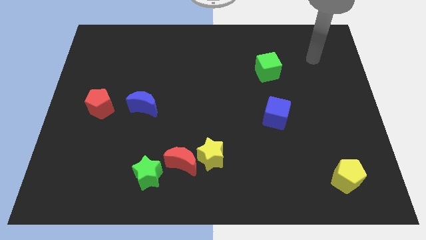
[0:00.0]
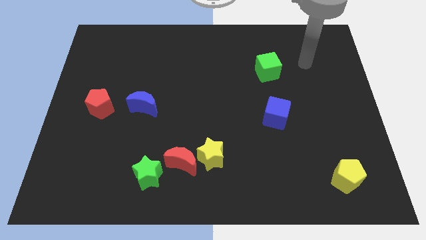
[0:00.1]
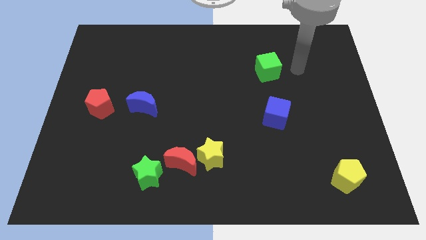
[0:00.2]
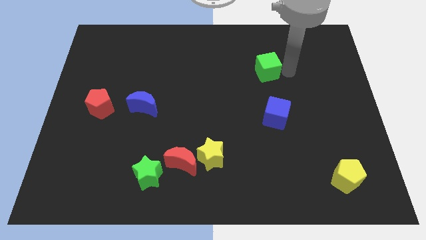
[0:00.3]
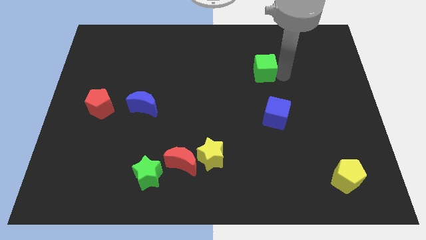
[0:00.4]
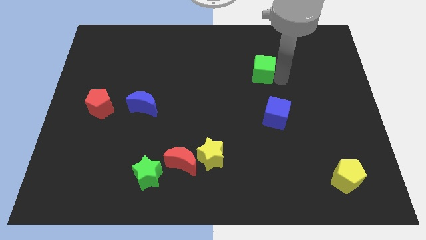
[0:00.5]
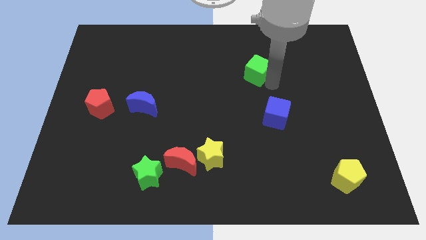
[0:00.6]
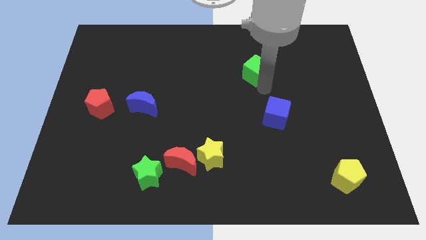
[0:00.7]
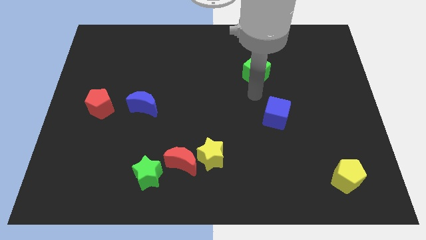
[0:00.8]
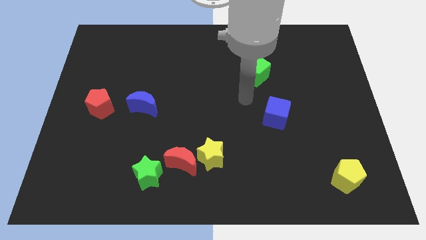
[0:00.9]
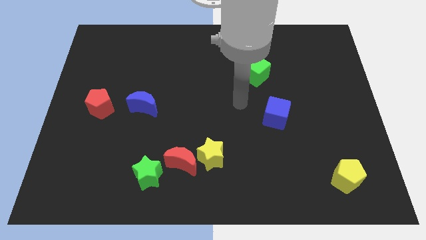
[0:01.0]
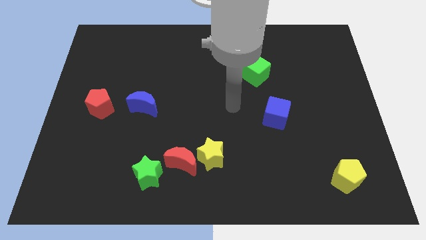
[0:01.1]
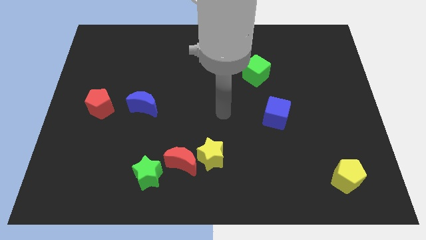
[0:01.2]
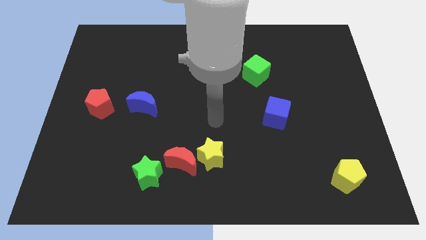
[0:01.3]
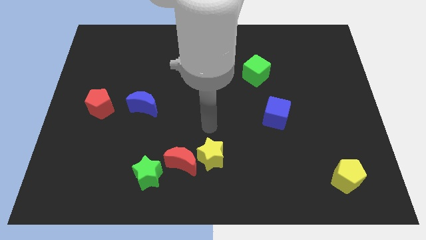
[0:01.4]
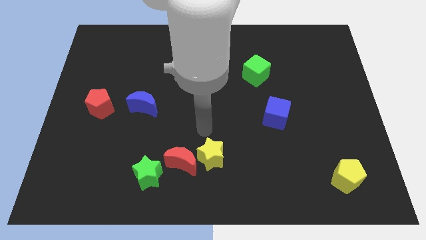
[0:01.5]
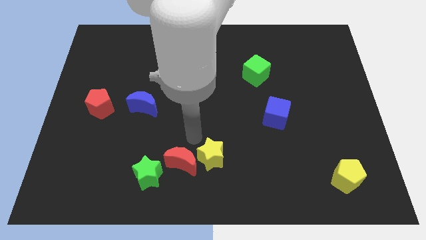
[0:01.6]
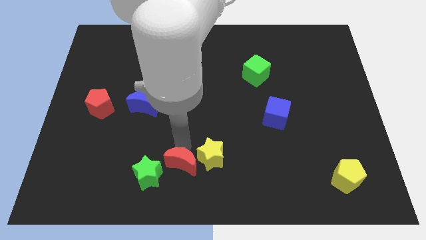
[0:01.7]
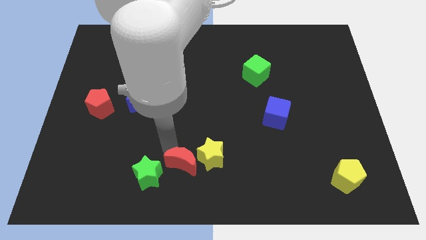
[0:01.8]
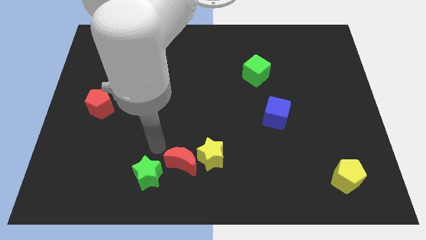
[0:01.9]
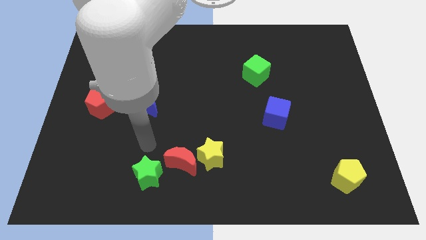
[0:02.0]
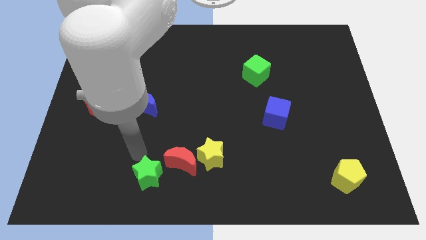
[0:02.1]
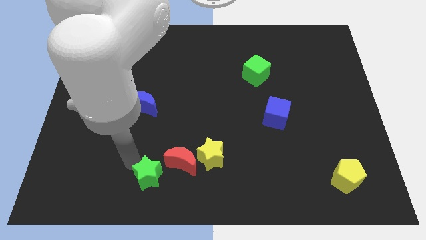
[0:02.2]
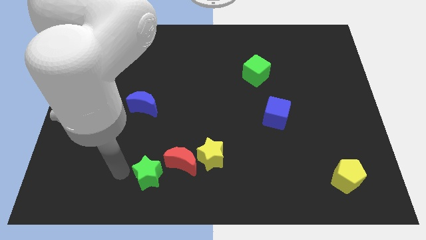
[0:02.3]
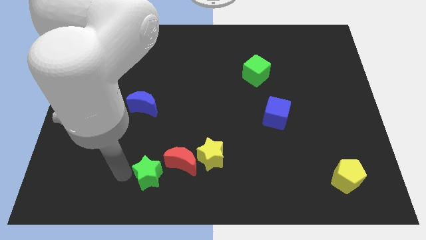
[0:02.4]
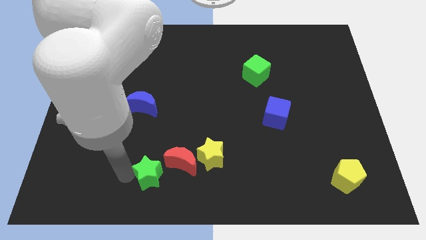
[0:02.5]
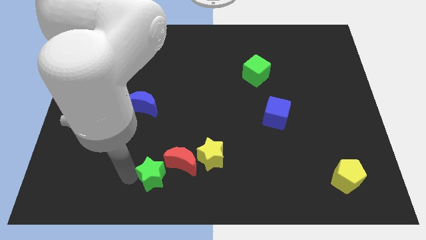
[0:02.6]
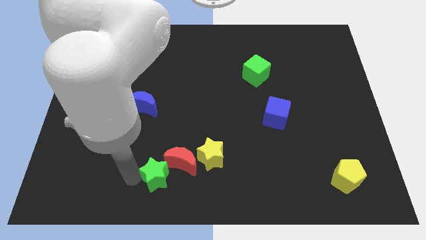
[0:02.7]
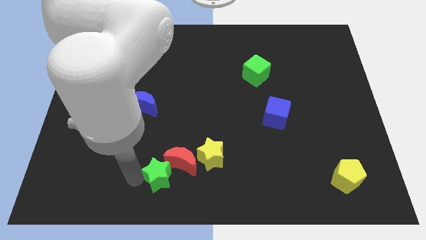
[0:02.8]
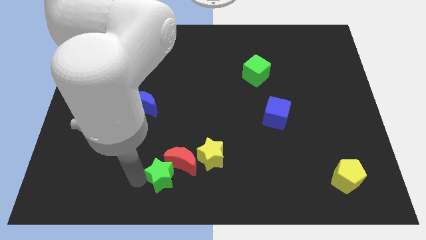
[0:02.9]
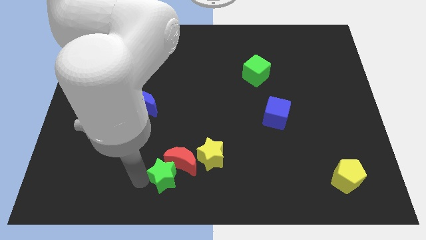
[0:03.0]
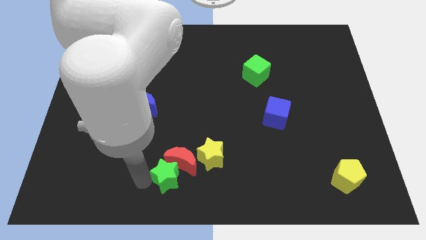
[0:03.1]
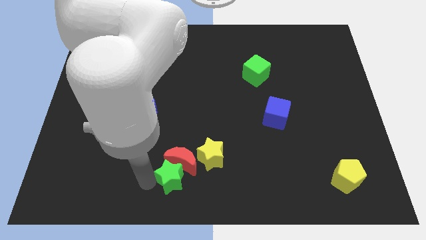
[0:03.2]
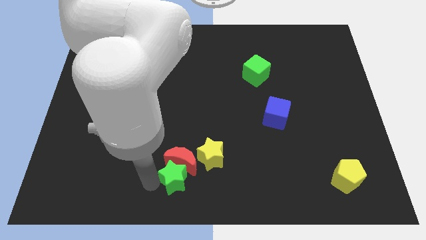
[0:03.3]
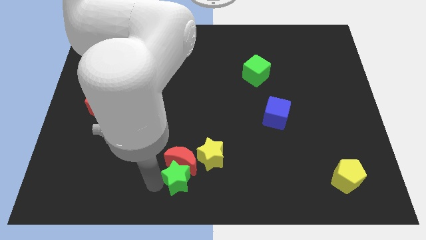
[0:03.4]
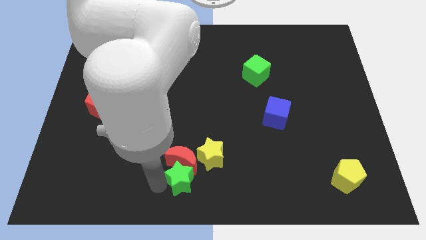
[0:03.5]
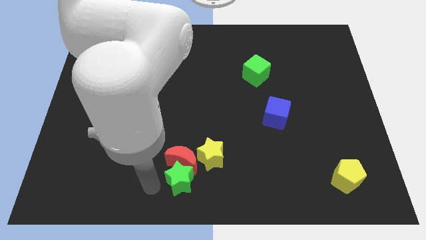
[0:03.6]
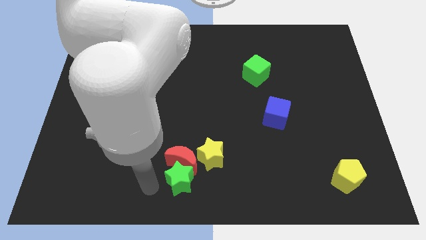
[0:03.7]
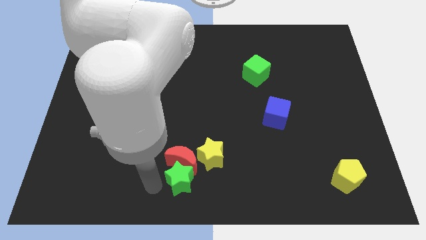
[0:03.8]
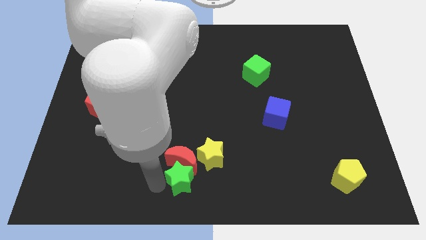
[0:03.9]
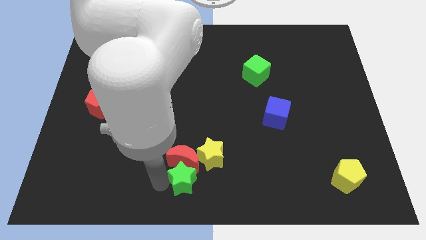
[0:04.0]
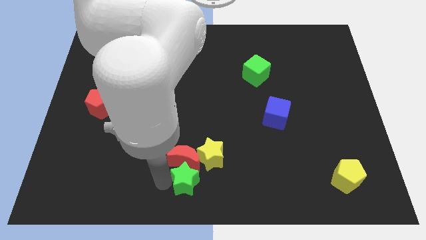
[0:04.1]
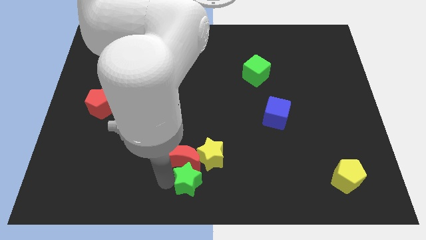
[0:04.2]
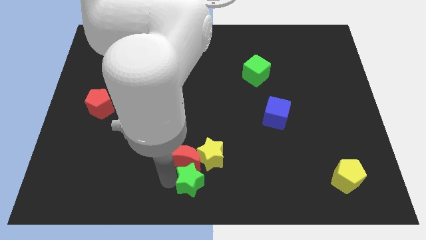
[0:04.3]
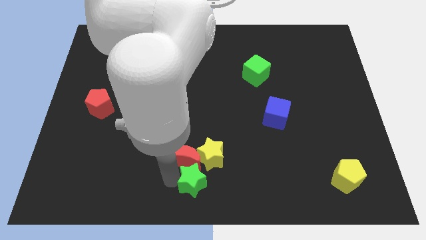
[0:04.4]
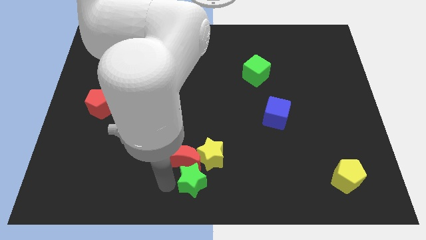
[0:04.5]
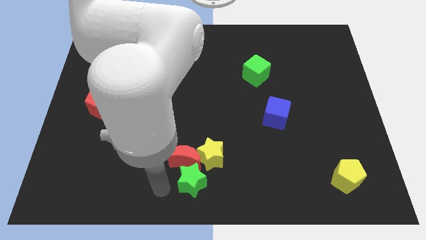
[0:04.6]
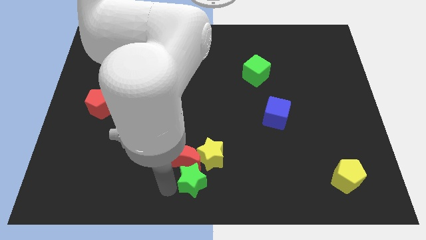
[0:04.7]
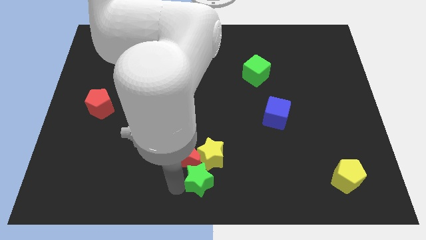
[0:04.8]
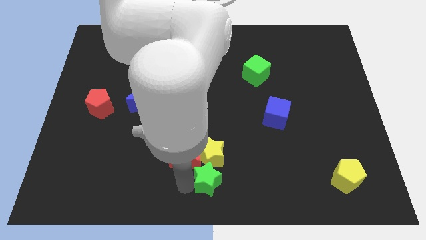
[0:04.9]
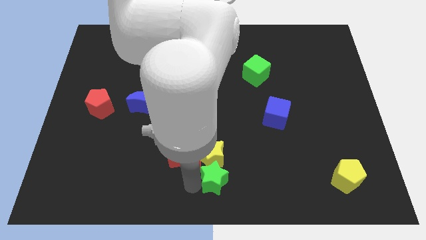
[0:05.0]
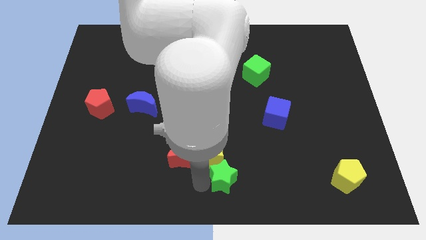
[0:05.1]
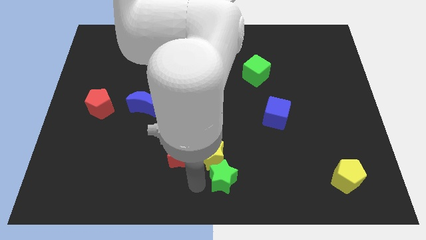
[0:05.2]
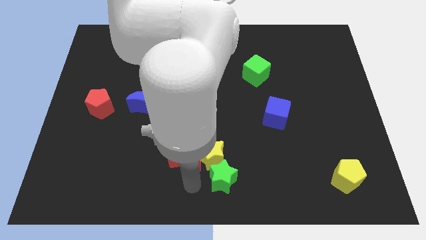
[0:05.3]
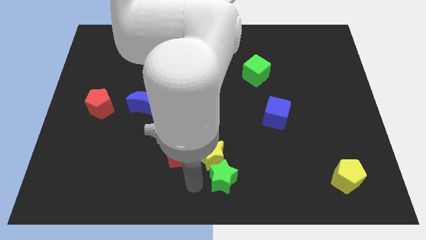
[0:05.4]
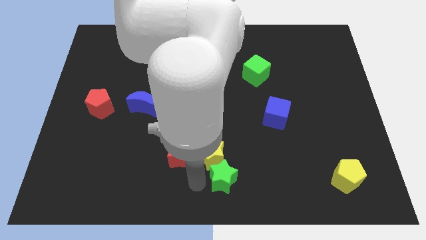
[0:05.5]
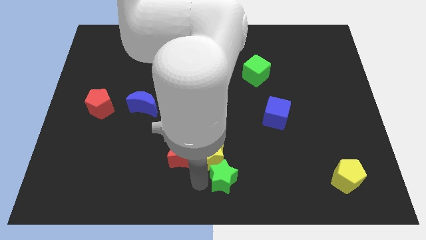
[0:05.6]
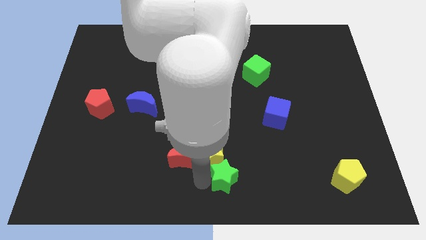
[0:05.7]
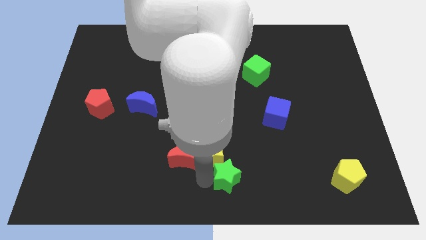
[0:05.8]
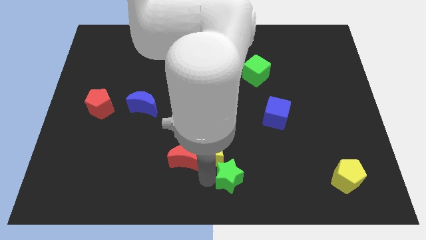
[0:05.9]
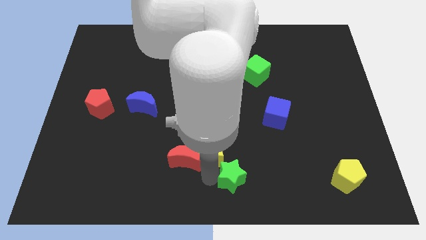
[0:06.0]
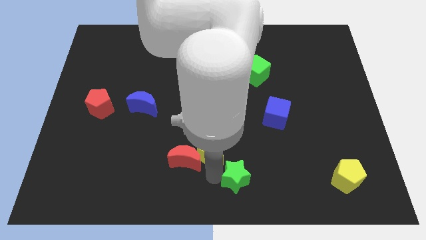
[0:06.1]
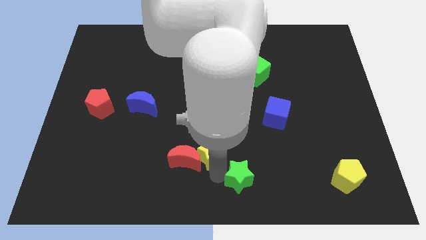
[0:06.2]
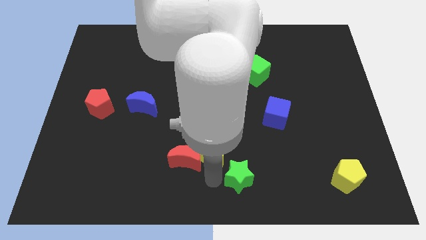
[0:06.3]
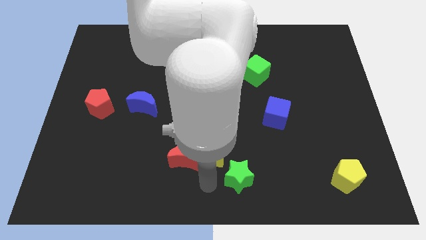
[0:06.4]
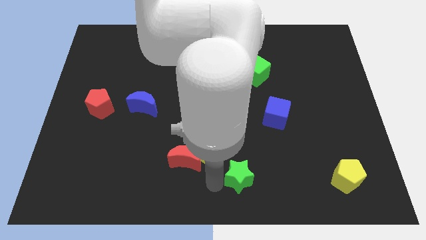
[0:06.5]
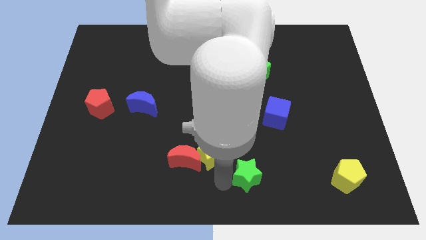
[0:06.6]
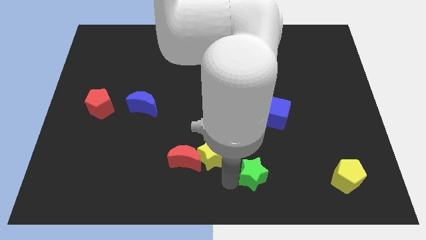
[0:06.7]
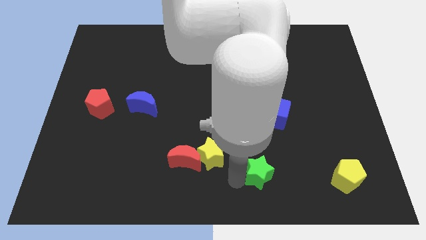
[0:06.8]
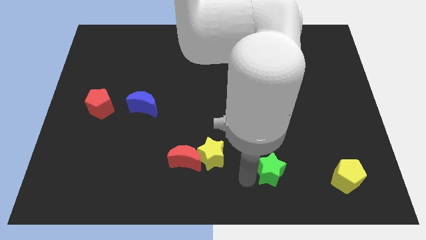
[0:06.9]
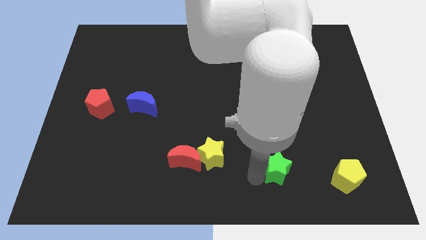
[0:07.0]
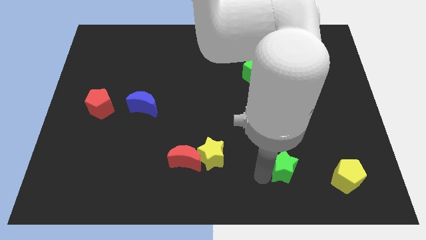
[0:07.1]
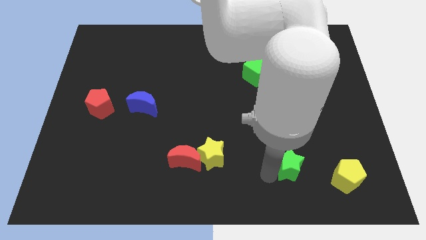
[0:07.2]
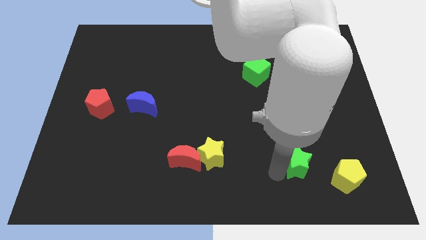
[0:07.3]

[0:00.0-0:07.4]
slide the green star diagonally up and to the left of the yellow pentagon

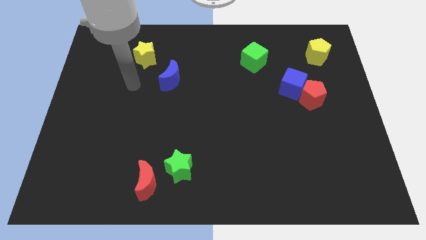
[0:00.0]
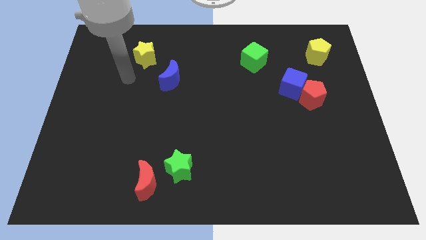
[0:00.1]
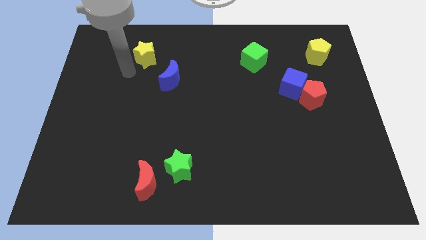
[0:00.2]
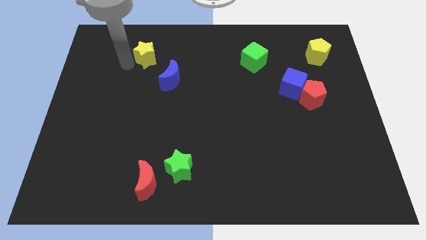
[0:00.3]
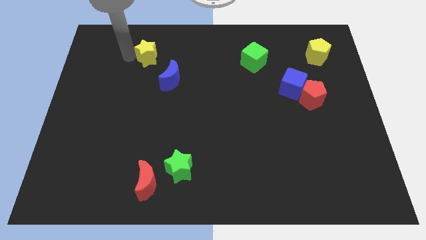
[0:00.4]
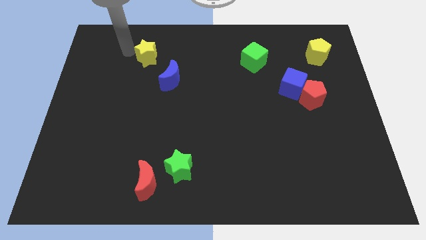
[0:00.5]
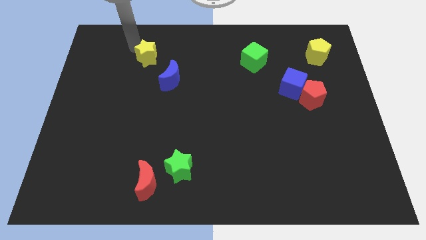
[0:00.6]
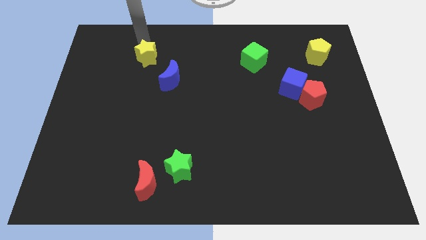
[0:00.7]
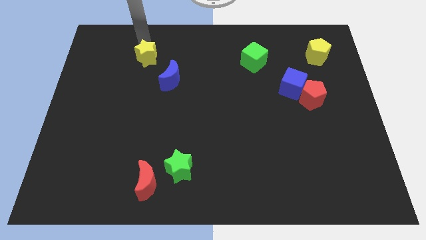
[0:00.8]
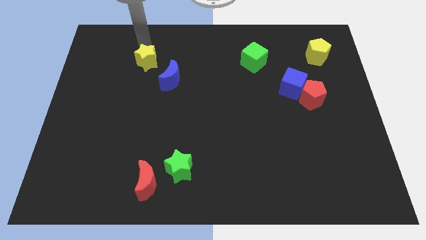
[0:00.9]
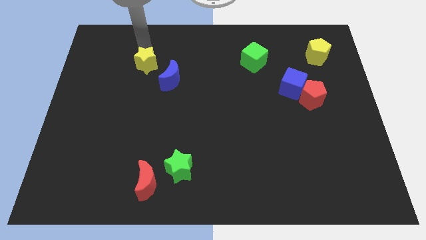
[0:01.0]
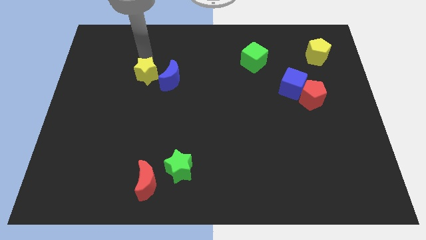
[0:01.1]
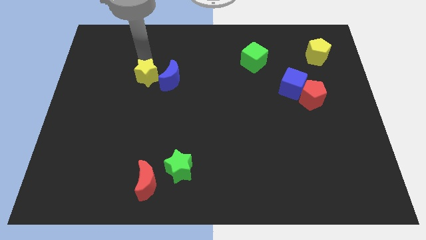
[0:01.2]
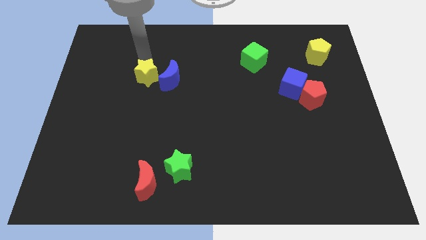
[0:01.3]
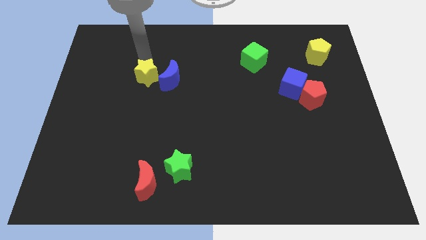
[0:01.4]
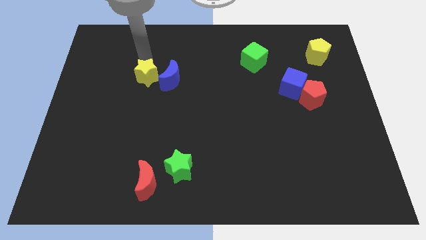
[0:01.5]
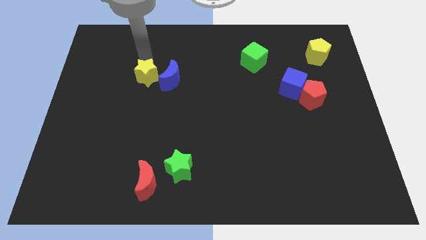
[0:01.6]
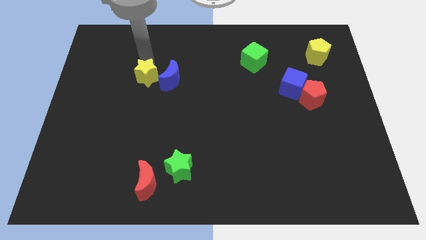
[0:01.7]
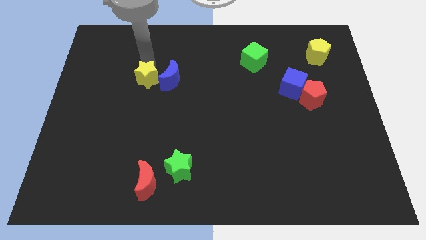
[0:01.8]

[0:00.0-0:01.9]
move the yellow star diagonally down and to the left of the blue moon
